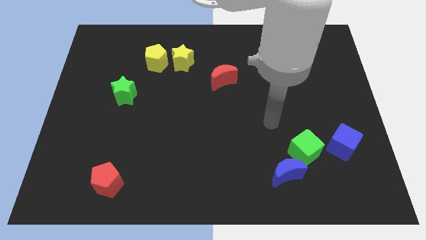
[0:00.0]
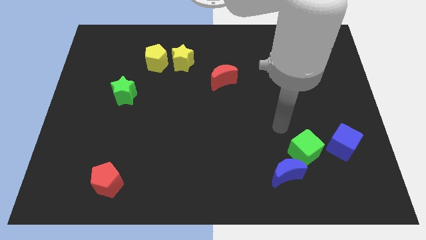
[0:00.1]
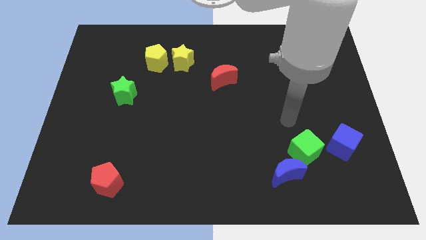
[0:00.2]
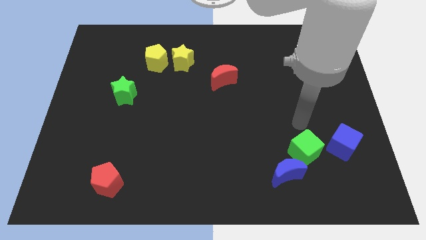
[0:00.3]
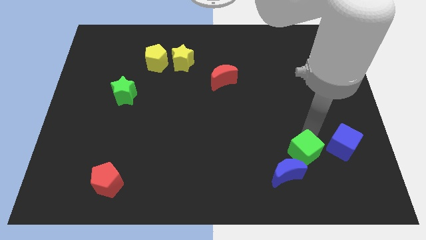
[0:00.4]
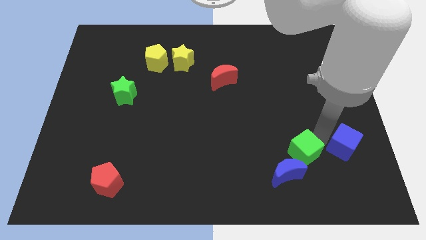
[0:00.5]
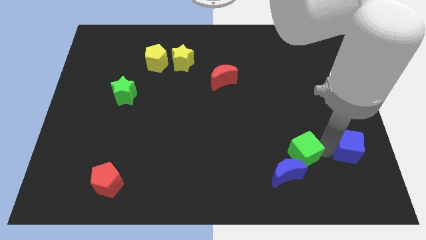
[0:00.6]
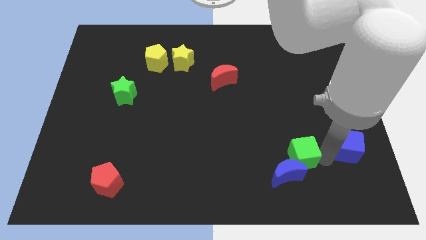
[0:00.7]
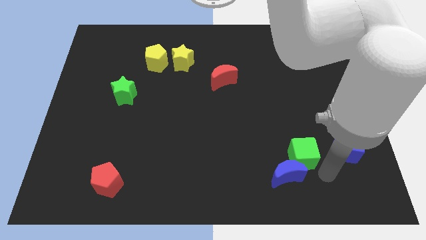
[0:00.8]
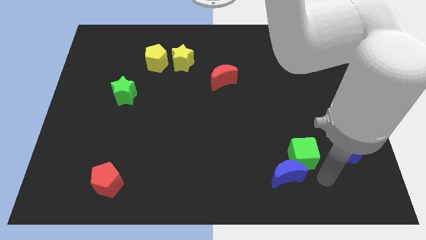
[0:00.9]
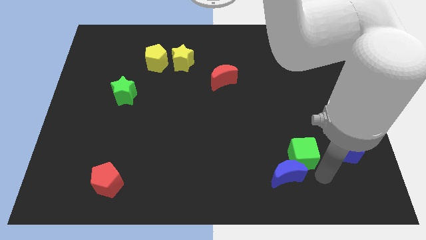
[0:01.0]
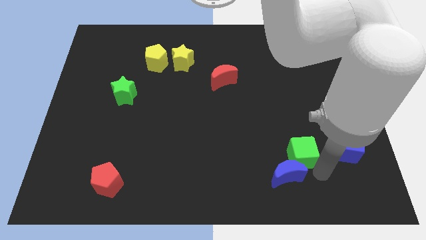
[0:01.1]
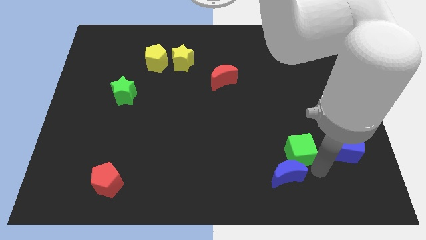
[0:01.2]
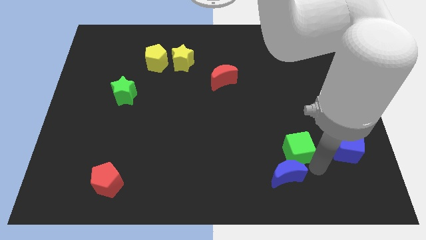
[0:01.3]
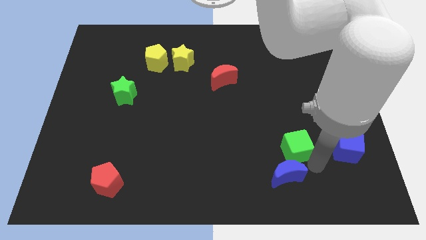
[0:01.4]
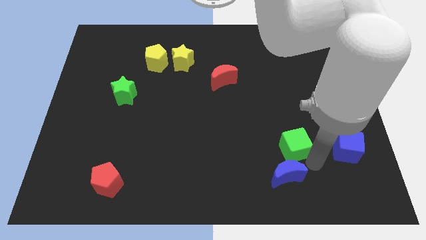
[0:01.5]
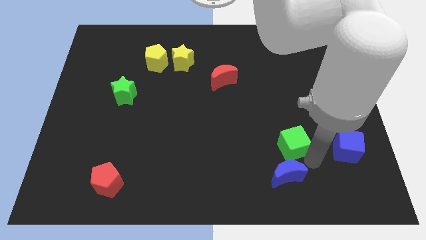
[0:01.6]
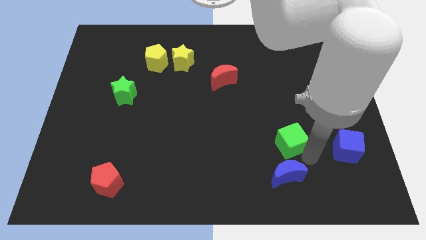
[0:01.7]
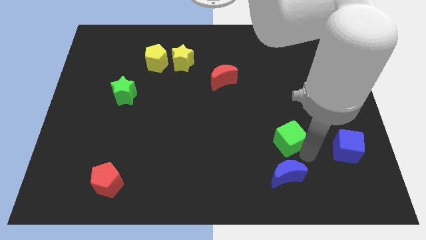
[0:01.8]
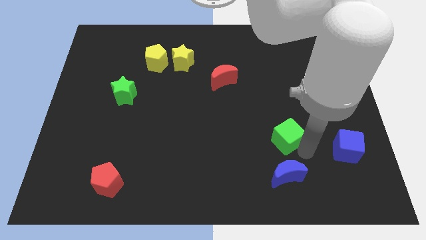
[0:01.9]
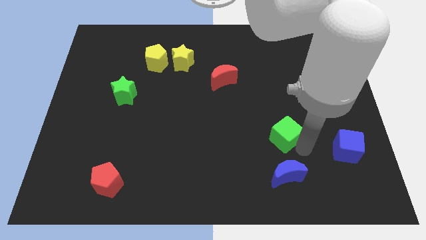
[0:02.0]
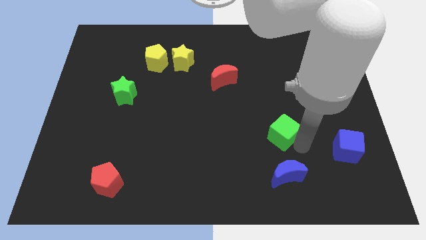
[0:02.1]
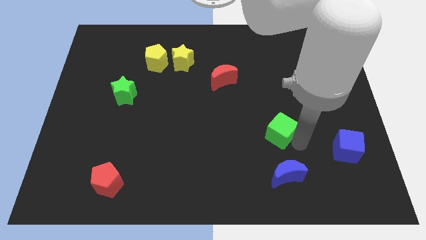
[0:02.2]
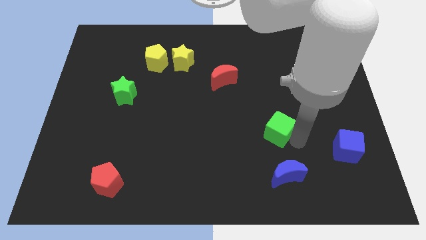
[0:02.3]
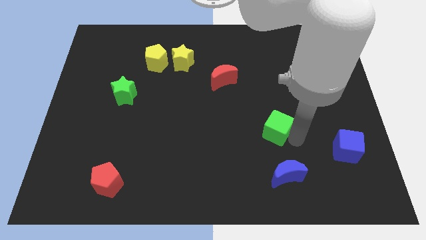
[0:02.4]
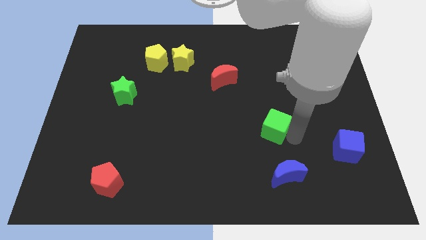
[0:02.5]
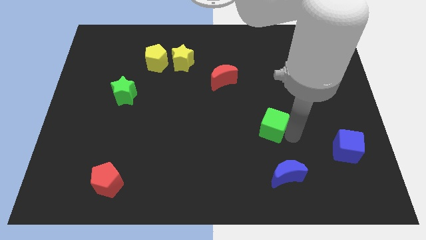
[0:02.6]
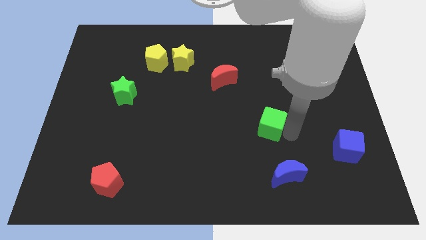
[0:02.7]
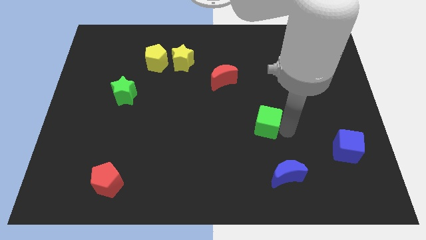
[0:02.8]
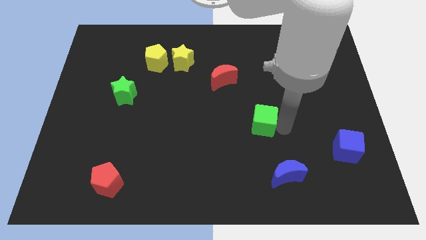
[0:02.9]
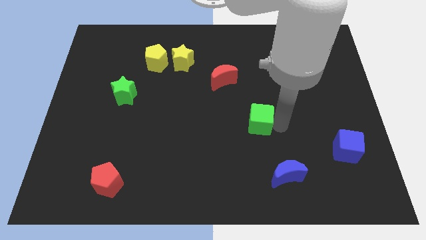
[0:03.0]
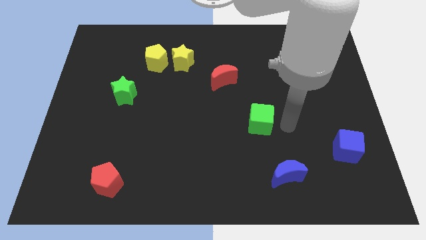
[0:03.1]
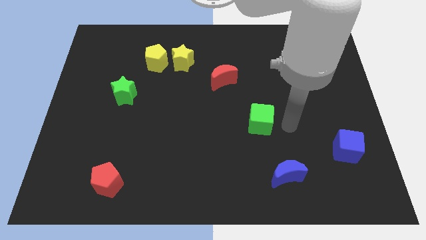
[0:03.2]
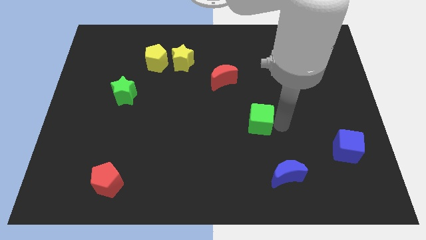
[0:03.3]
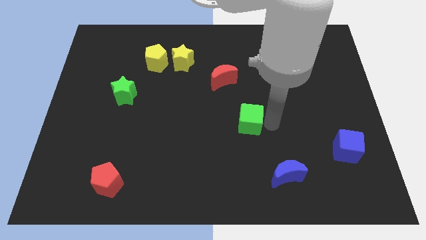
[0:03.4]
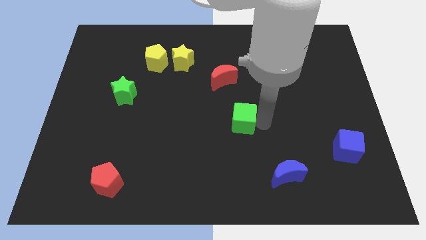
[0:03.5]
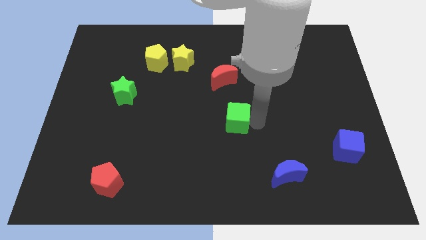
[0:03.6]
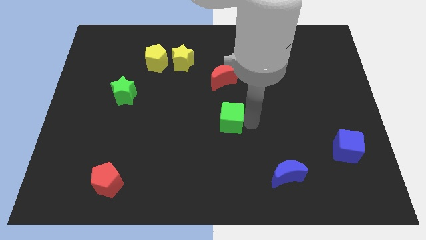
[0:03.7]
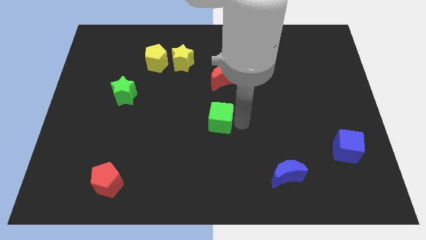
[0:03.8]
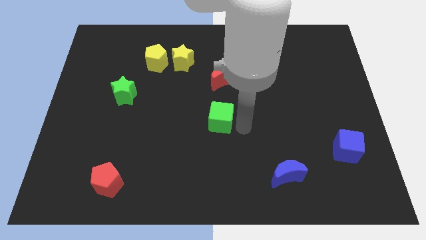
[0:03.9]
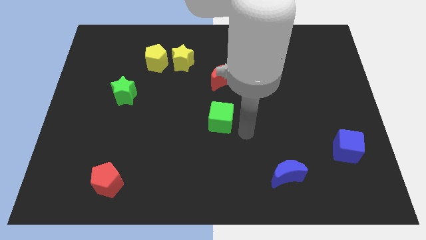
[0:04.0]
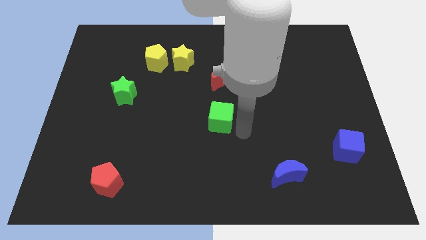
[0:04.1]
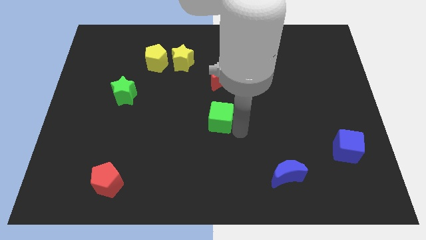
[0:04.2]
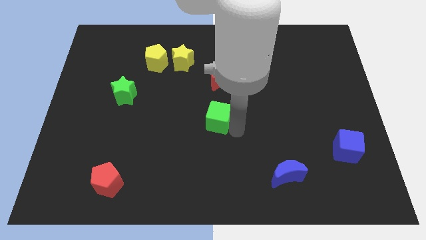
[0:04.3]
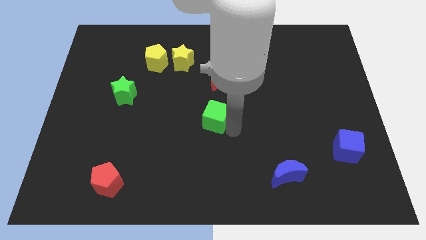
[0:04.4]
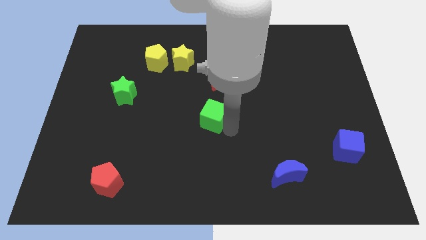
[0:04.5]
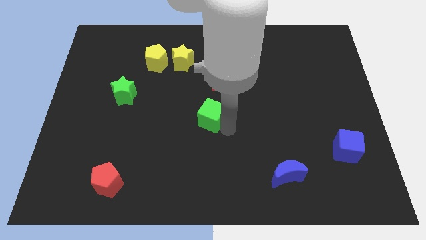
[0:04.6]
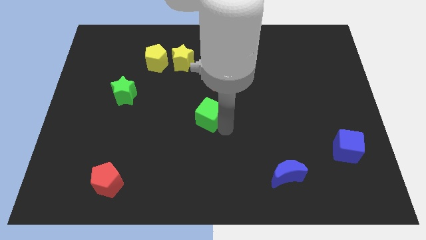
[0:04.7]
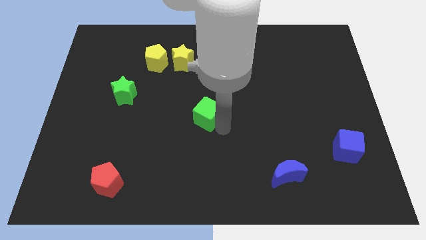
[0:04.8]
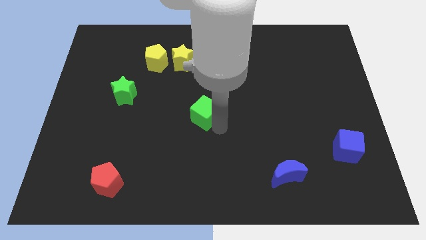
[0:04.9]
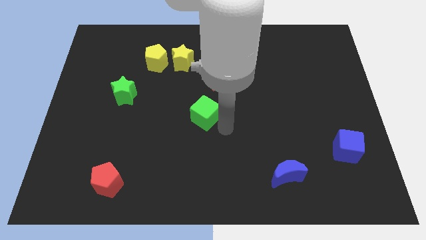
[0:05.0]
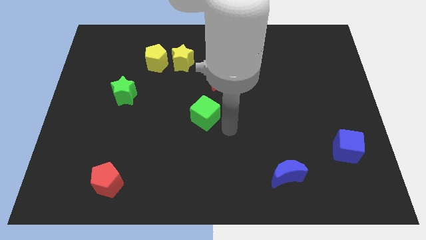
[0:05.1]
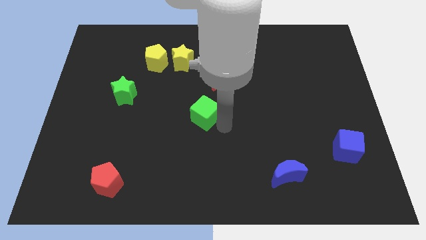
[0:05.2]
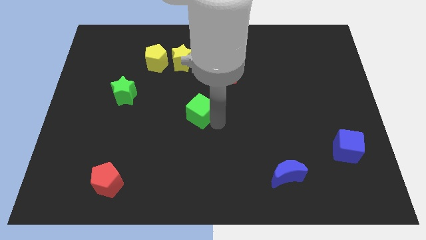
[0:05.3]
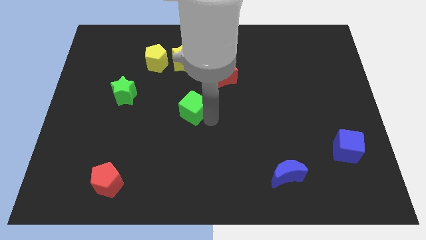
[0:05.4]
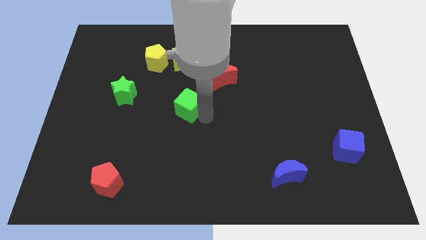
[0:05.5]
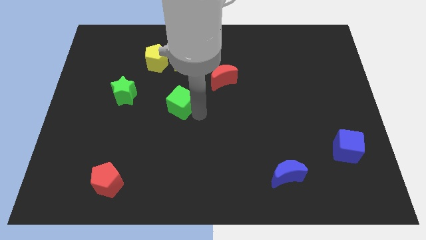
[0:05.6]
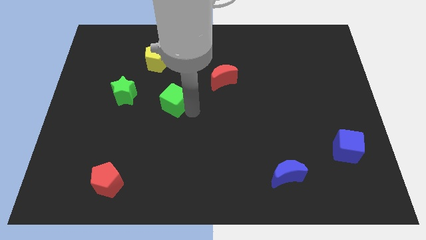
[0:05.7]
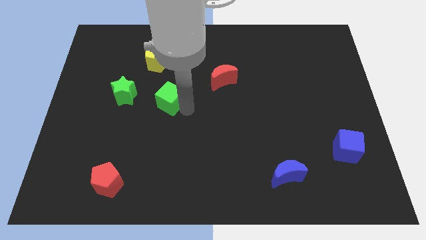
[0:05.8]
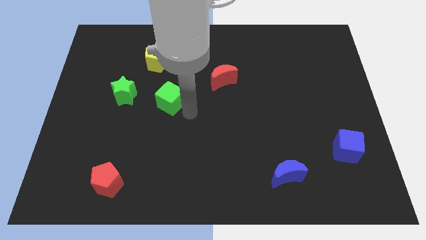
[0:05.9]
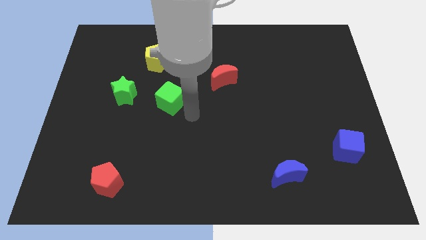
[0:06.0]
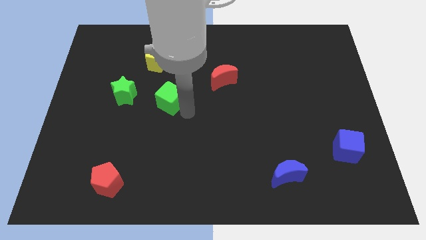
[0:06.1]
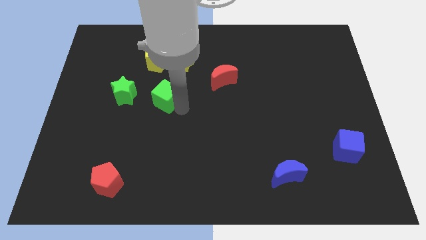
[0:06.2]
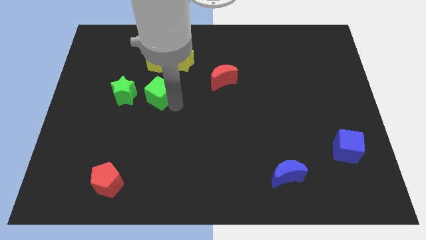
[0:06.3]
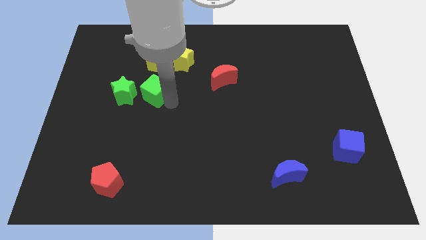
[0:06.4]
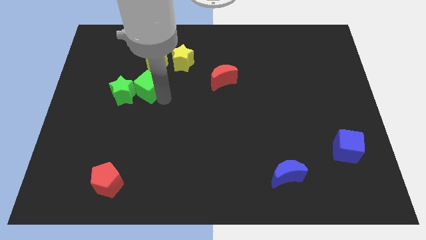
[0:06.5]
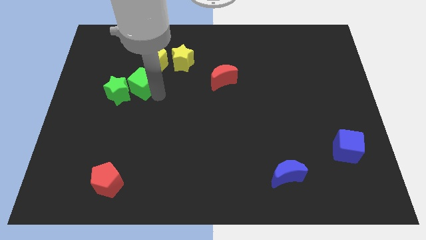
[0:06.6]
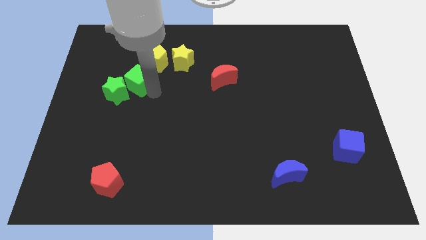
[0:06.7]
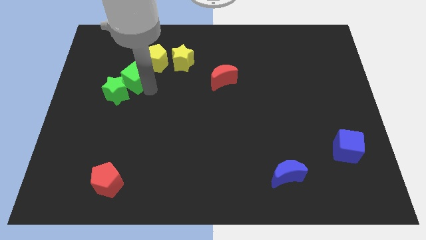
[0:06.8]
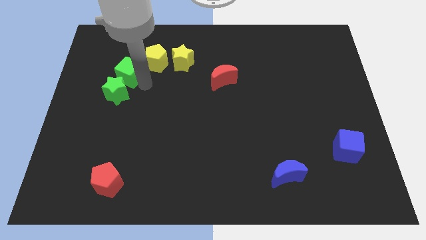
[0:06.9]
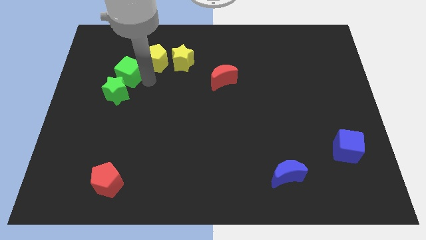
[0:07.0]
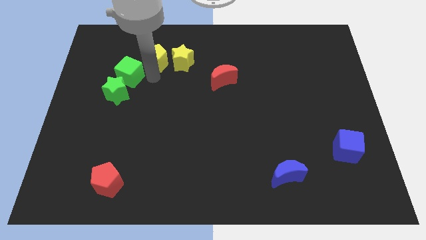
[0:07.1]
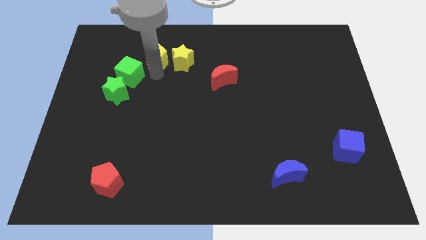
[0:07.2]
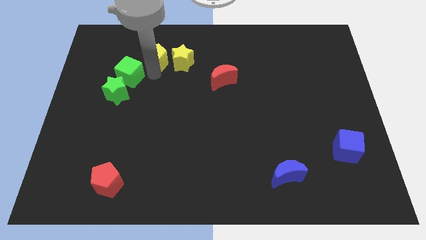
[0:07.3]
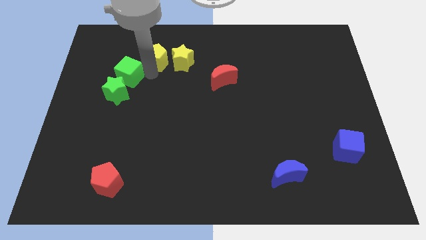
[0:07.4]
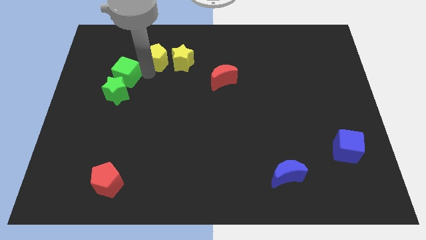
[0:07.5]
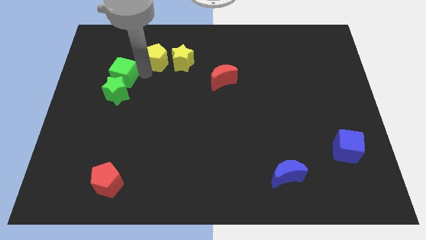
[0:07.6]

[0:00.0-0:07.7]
slide the green cube diagonally up and to the left of the green star

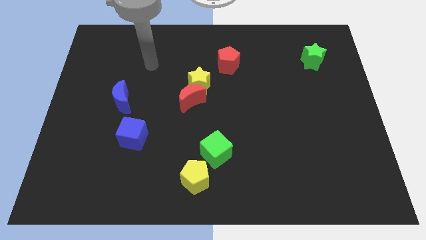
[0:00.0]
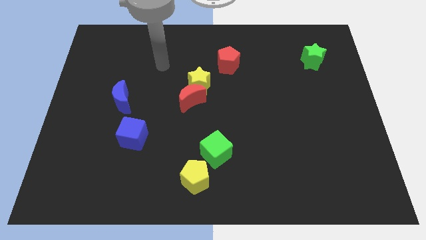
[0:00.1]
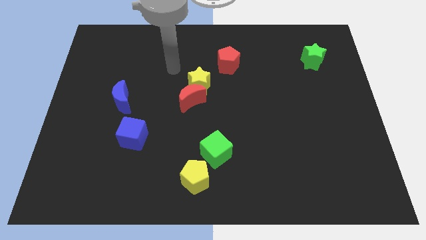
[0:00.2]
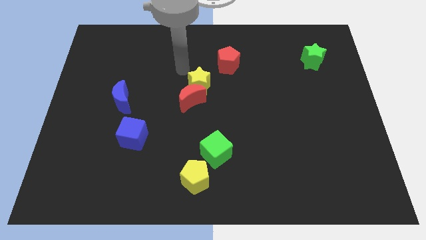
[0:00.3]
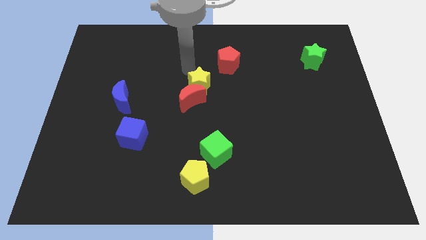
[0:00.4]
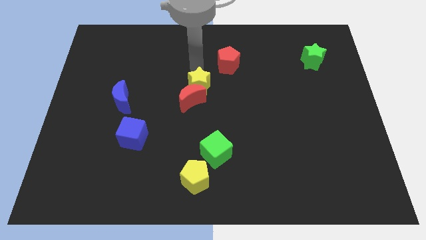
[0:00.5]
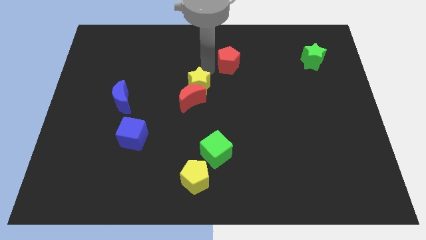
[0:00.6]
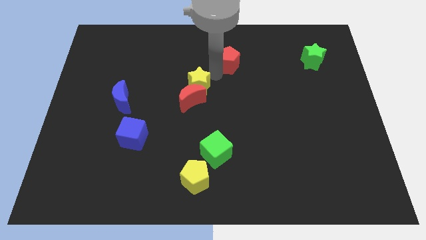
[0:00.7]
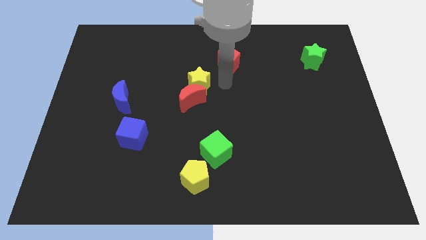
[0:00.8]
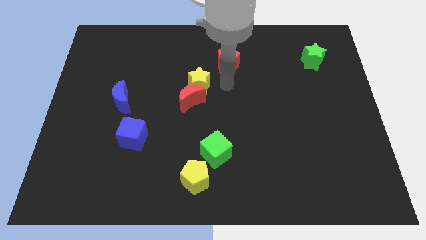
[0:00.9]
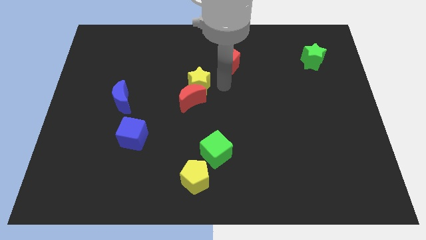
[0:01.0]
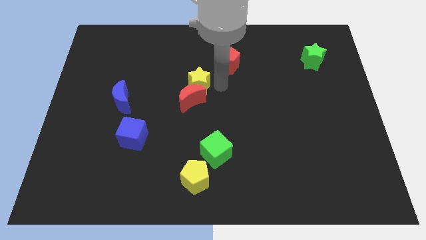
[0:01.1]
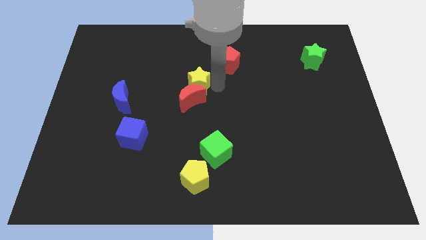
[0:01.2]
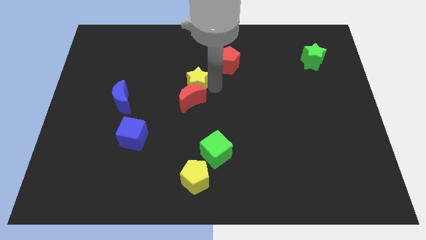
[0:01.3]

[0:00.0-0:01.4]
slide the yellow star to the top left side of the red moon
